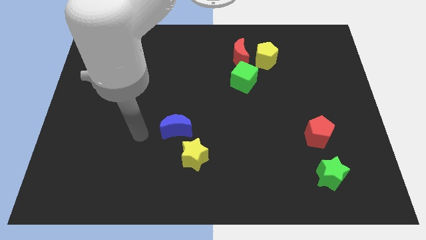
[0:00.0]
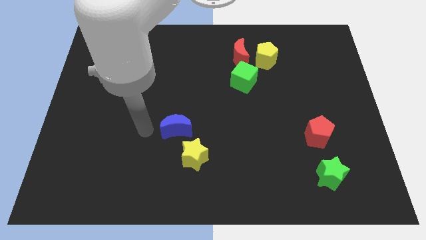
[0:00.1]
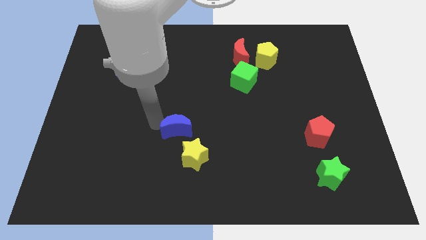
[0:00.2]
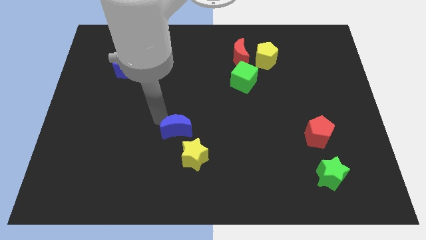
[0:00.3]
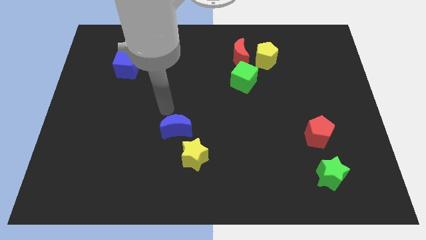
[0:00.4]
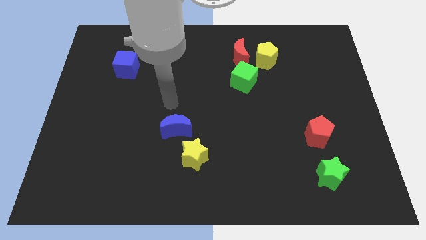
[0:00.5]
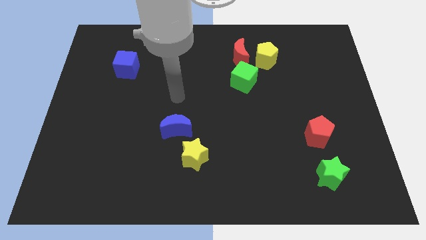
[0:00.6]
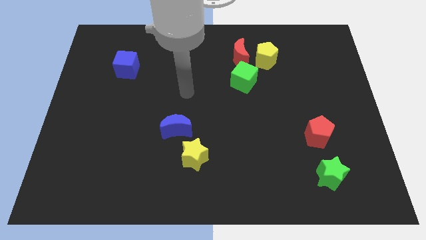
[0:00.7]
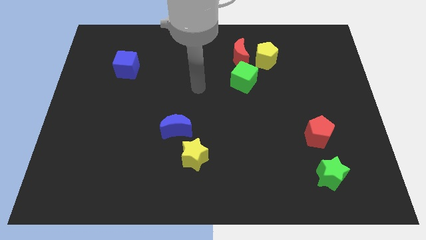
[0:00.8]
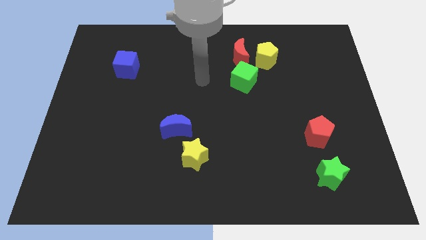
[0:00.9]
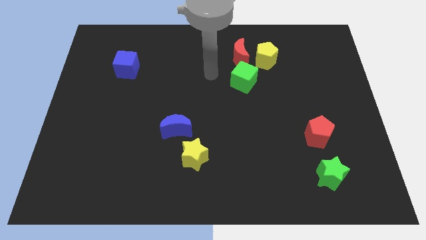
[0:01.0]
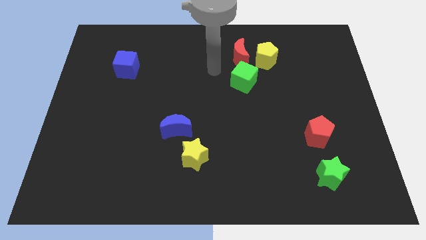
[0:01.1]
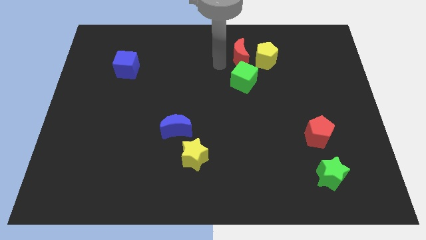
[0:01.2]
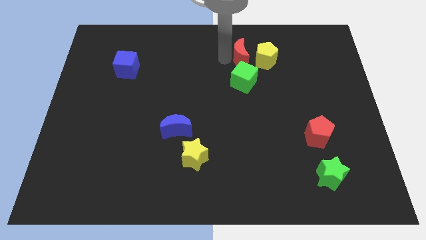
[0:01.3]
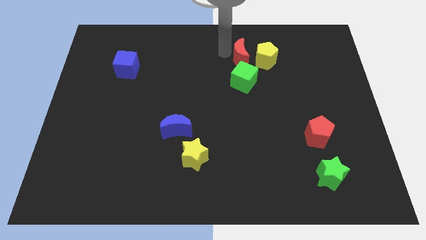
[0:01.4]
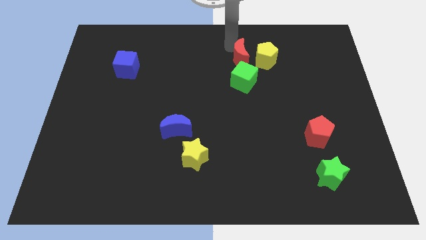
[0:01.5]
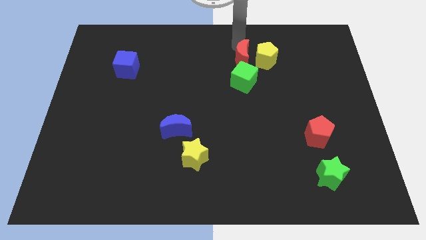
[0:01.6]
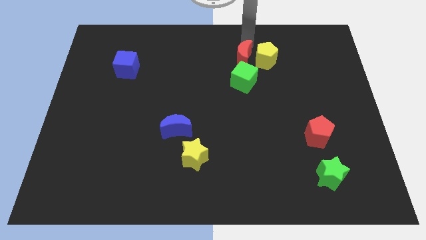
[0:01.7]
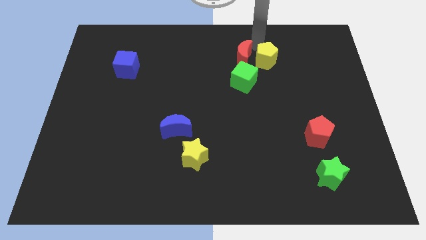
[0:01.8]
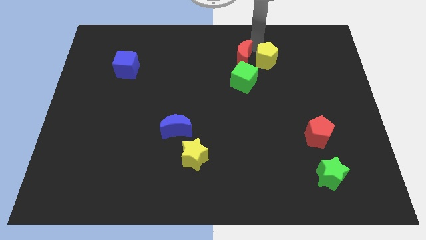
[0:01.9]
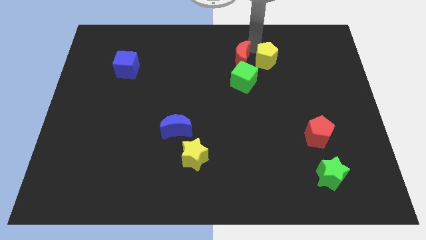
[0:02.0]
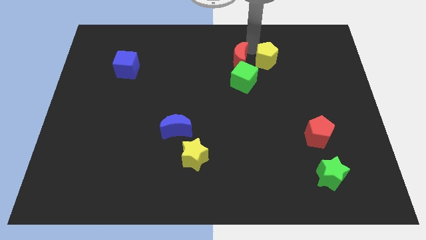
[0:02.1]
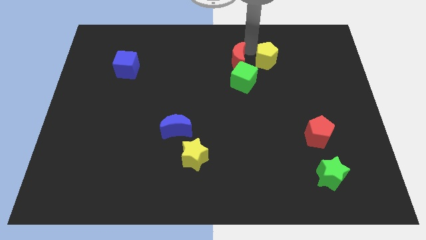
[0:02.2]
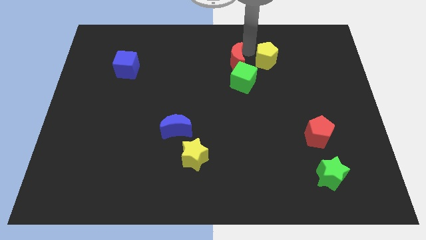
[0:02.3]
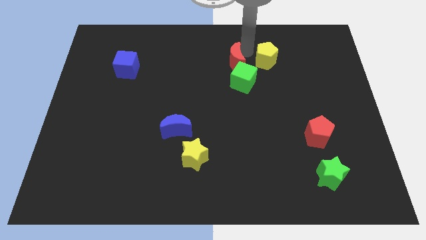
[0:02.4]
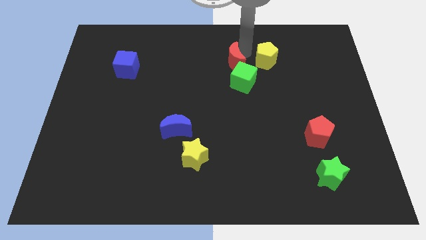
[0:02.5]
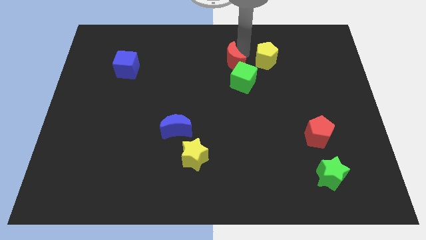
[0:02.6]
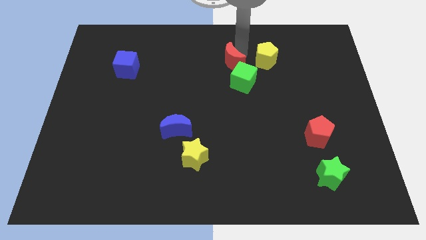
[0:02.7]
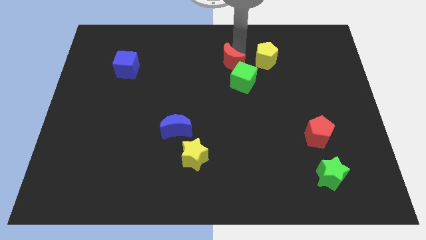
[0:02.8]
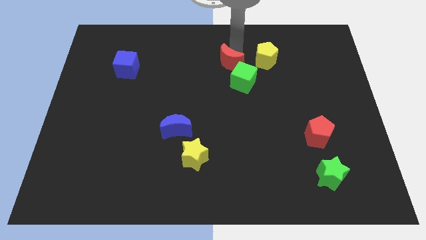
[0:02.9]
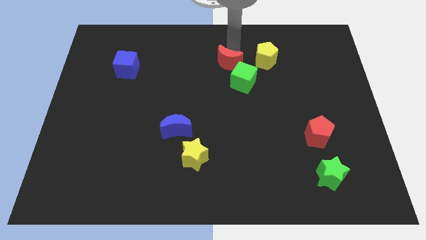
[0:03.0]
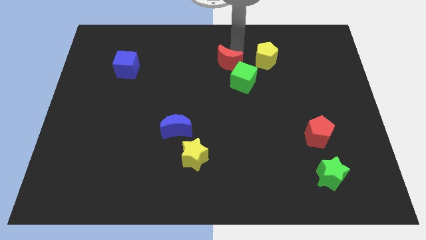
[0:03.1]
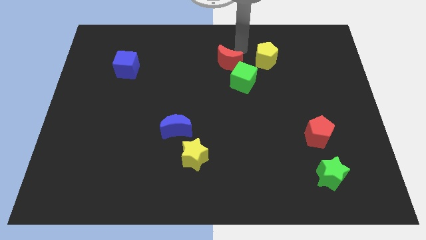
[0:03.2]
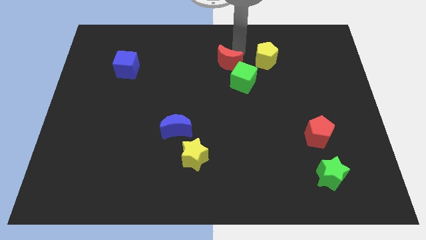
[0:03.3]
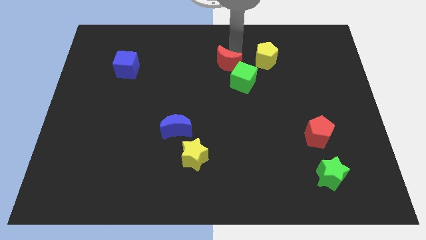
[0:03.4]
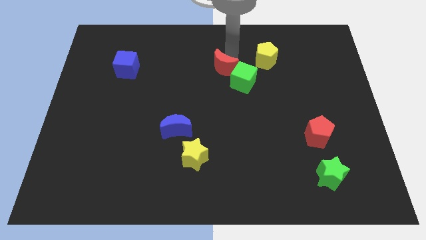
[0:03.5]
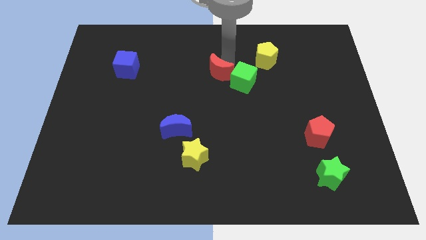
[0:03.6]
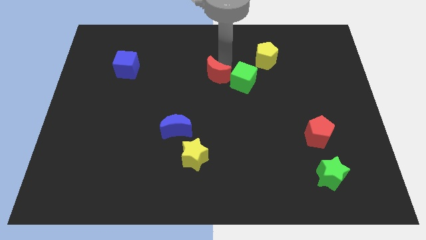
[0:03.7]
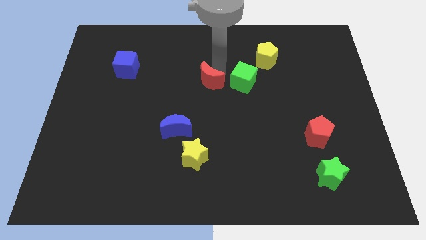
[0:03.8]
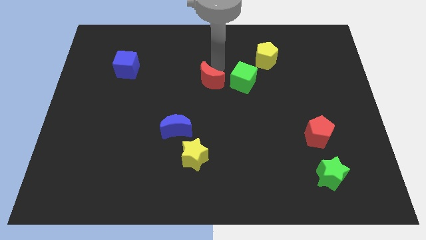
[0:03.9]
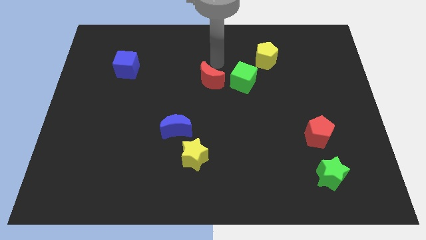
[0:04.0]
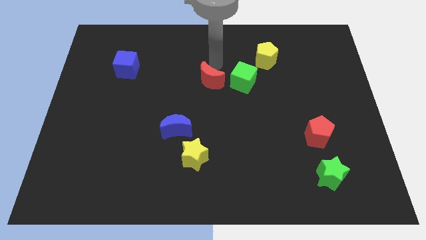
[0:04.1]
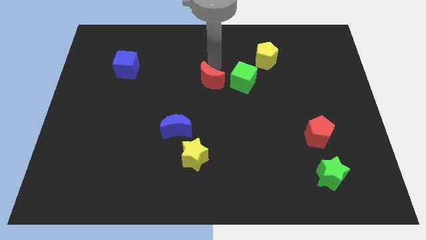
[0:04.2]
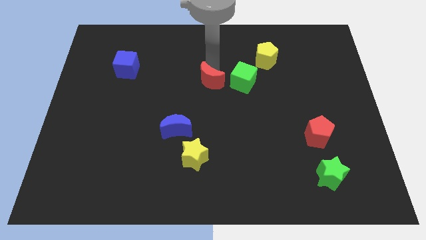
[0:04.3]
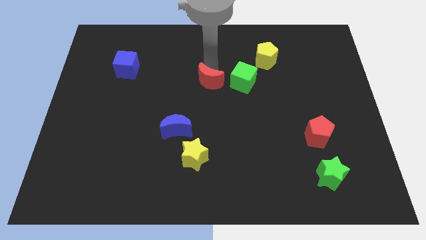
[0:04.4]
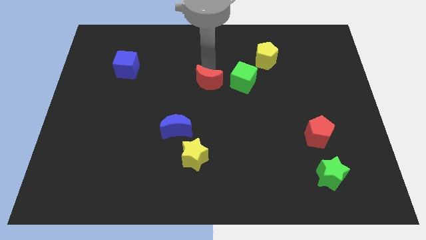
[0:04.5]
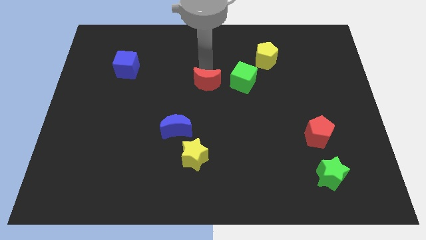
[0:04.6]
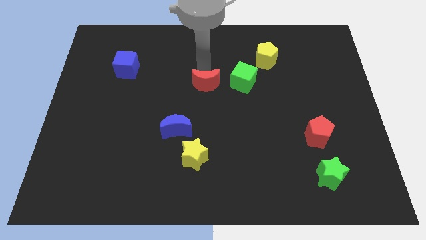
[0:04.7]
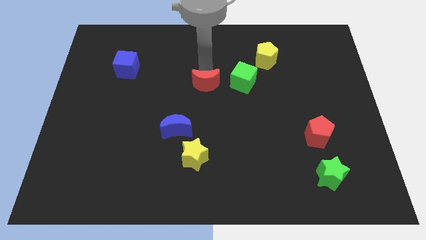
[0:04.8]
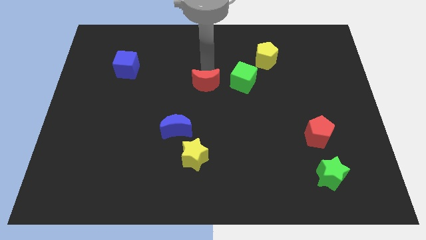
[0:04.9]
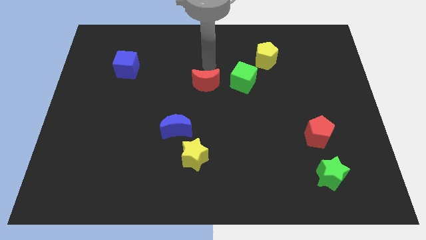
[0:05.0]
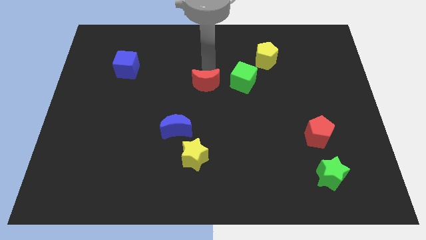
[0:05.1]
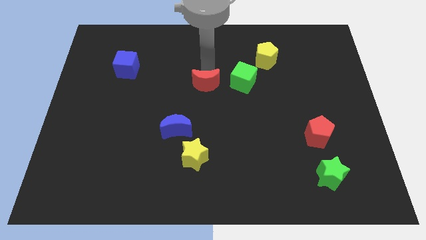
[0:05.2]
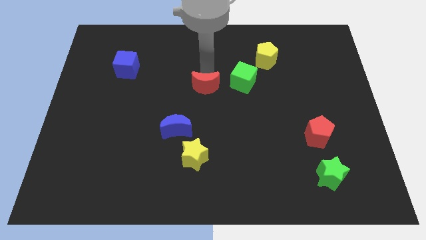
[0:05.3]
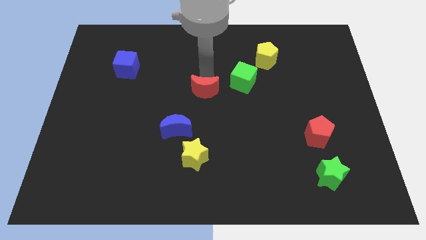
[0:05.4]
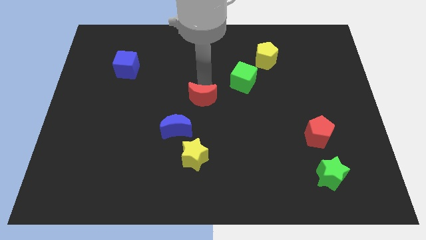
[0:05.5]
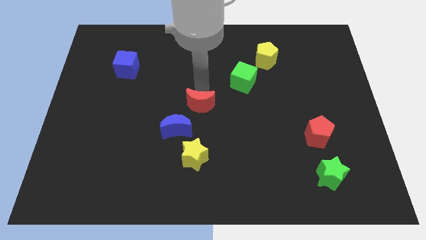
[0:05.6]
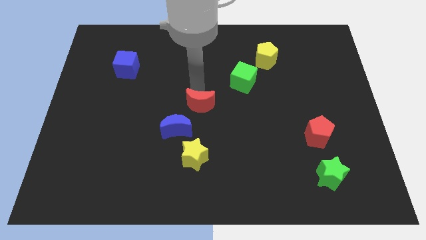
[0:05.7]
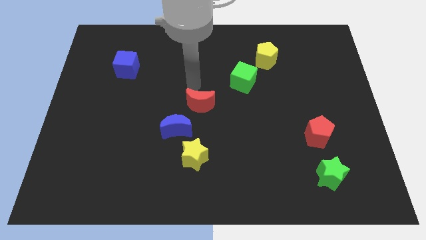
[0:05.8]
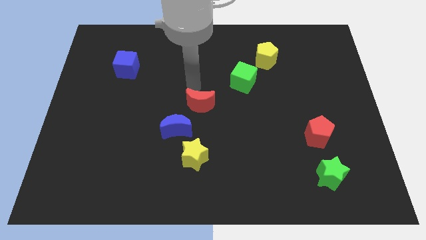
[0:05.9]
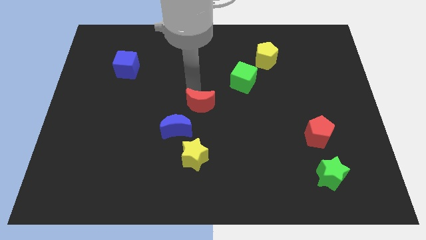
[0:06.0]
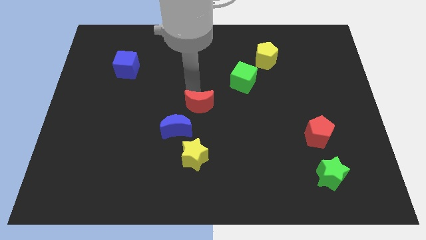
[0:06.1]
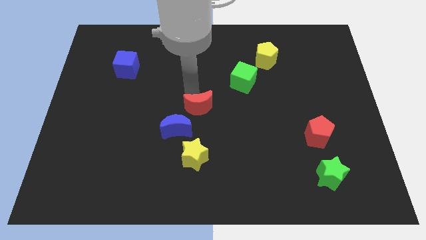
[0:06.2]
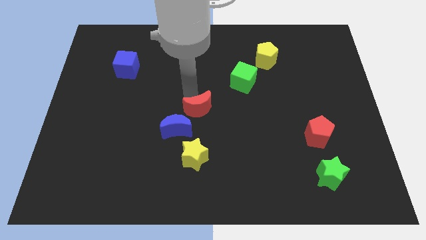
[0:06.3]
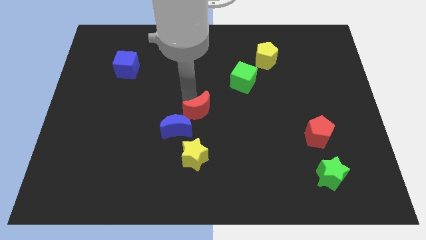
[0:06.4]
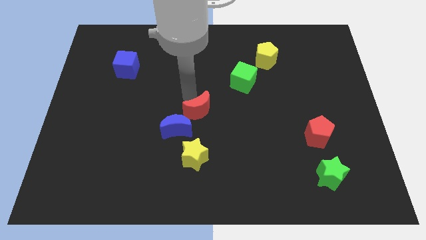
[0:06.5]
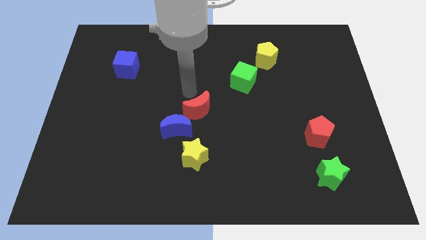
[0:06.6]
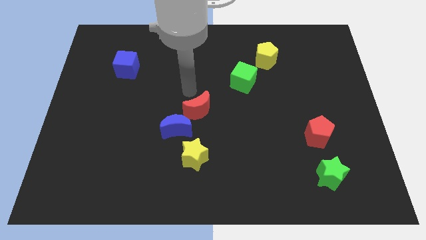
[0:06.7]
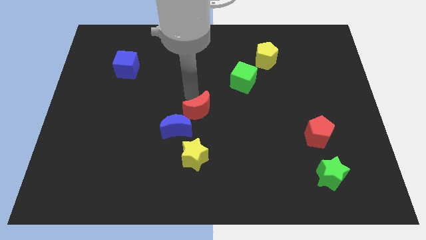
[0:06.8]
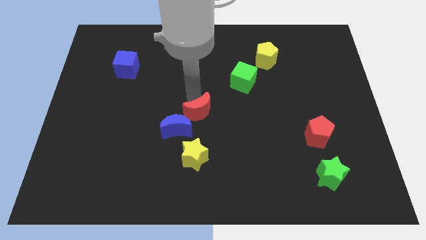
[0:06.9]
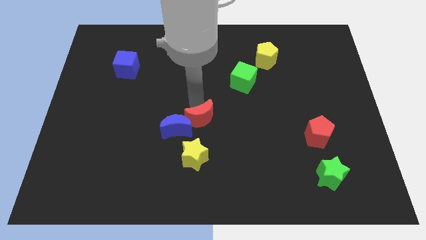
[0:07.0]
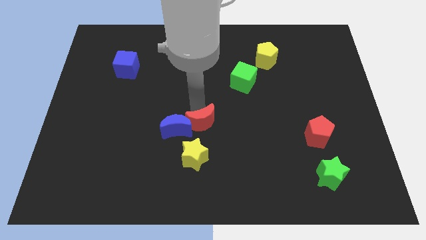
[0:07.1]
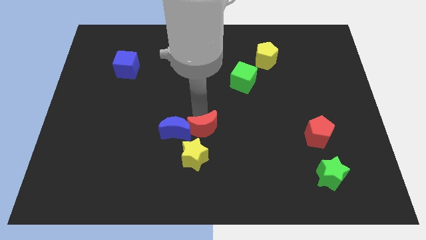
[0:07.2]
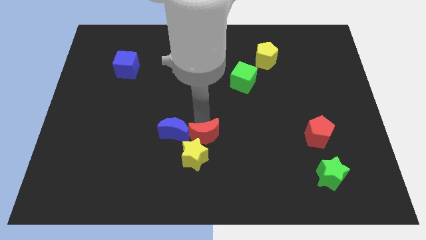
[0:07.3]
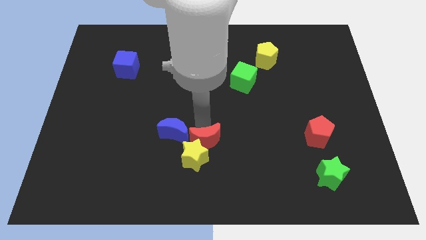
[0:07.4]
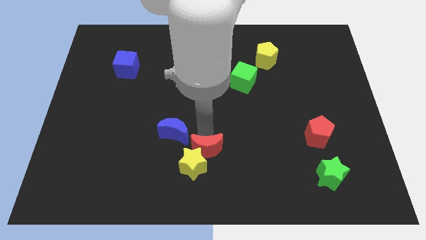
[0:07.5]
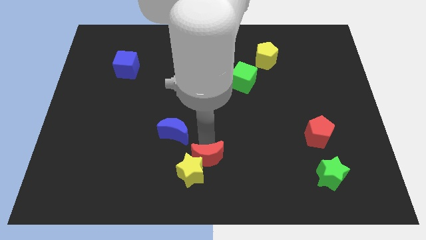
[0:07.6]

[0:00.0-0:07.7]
push the red moon to the bottom
